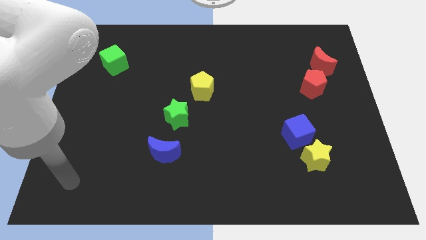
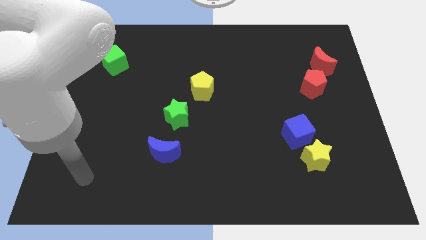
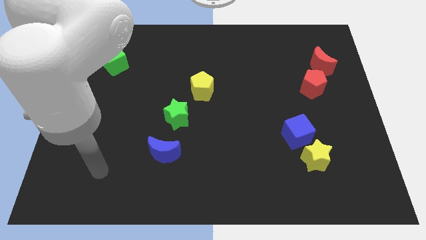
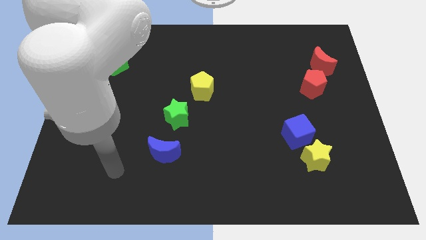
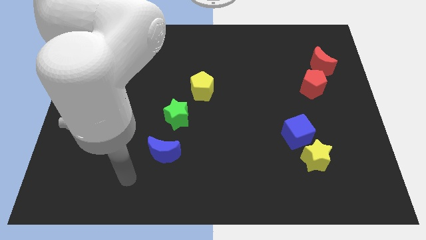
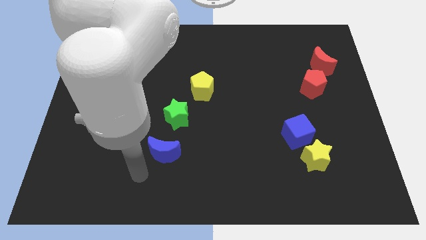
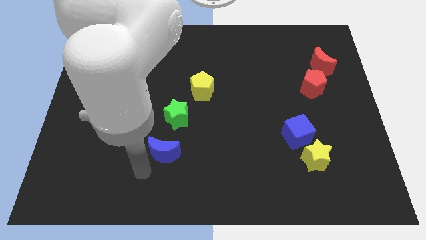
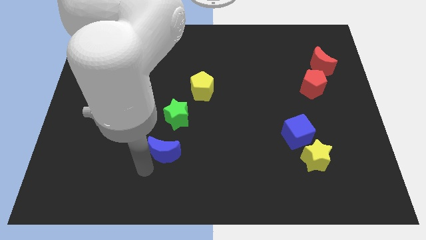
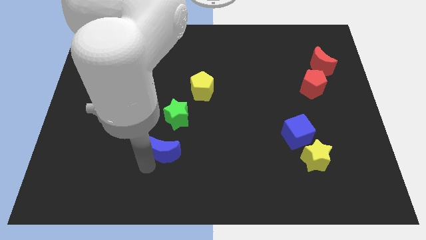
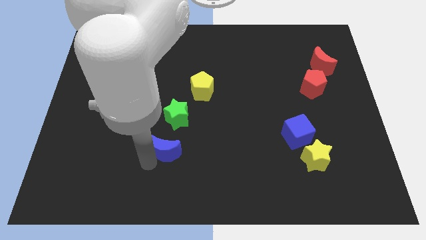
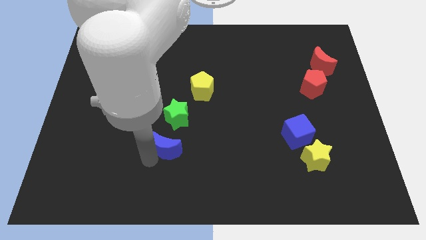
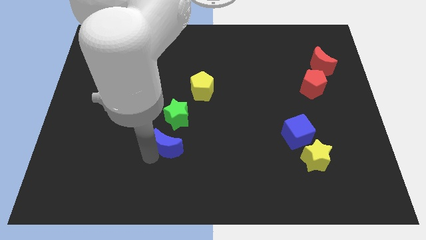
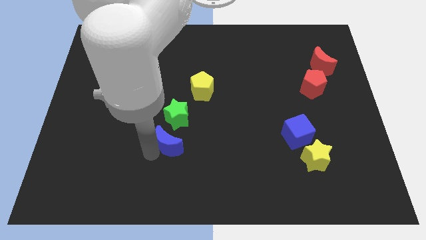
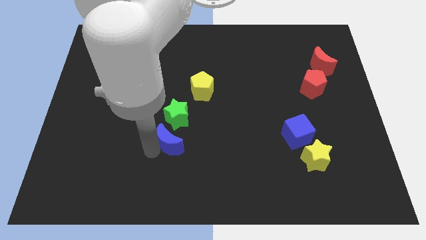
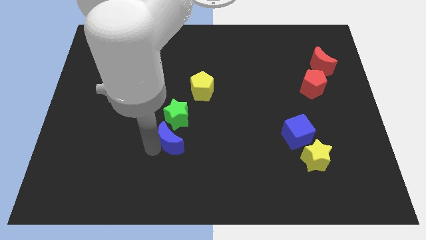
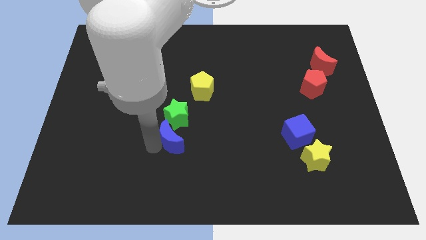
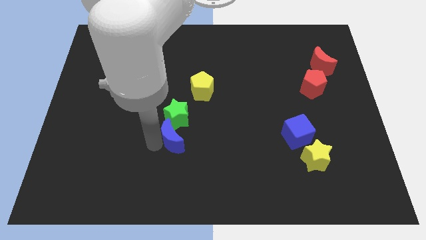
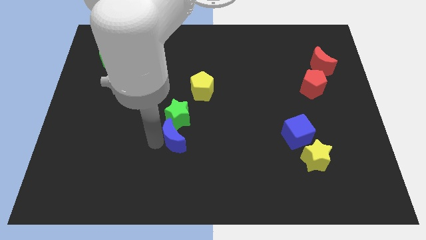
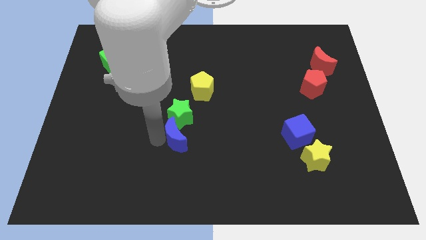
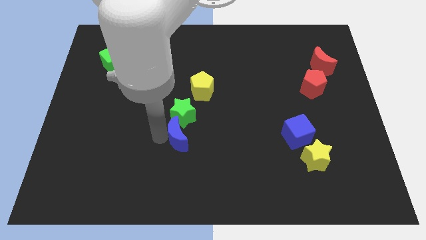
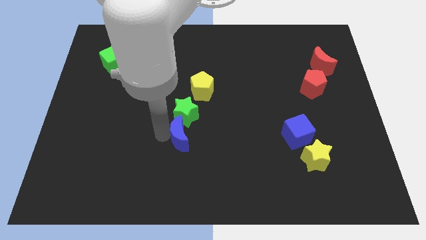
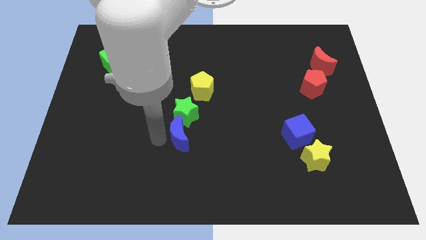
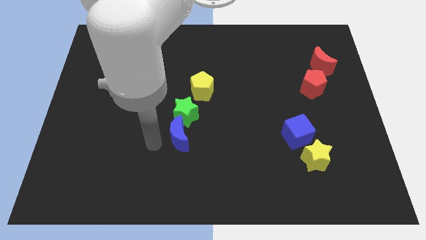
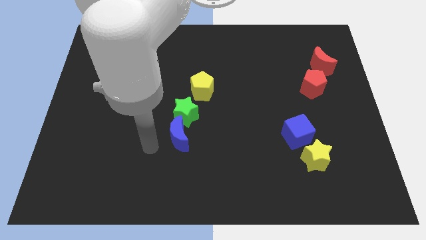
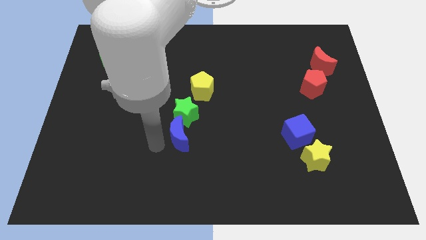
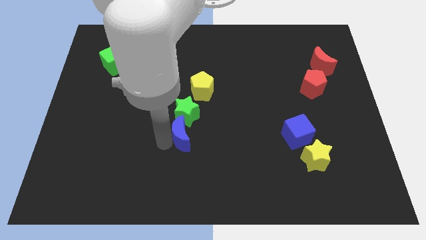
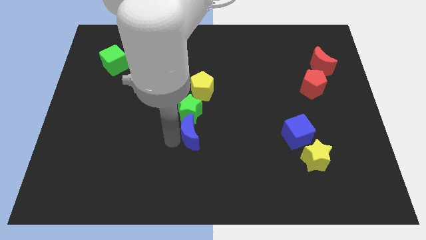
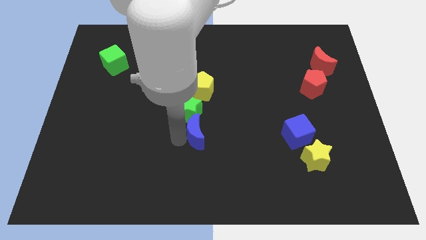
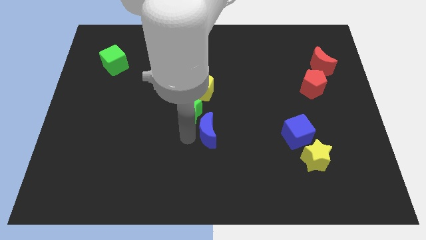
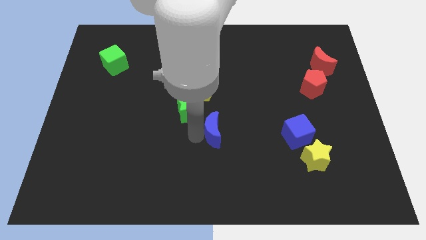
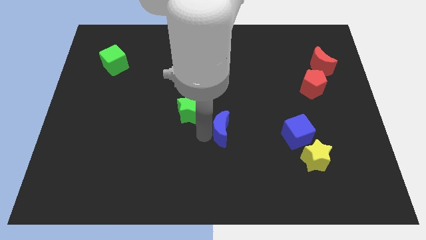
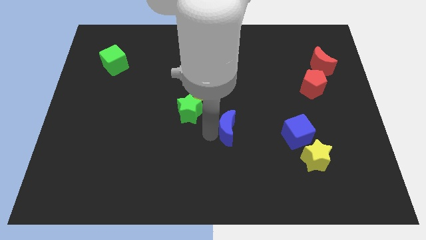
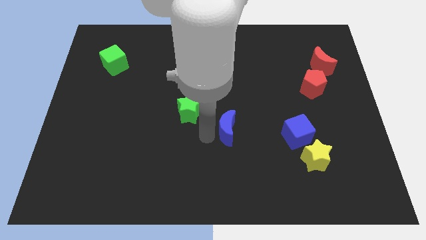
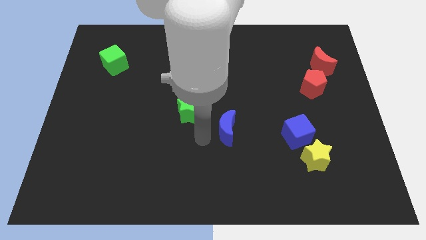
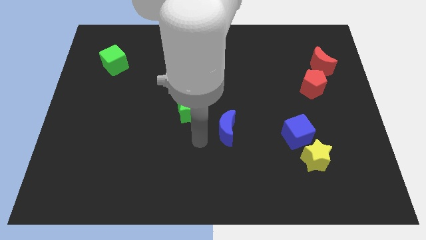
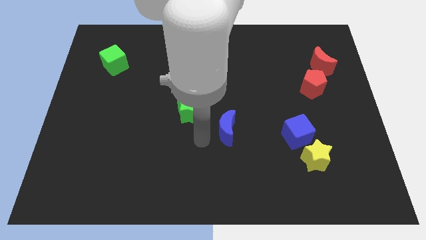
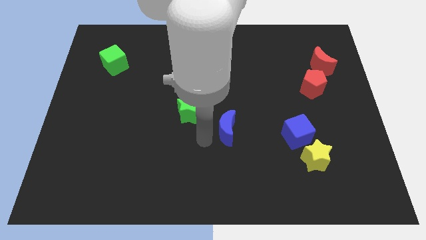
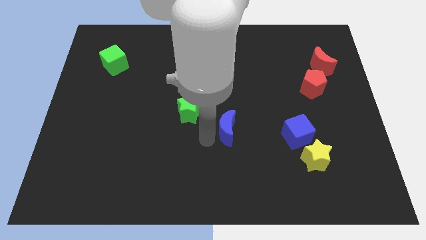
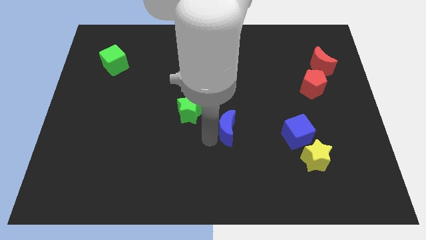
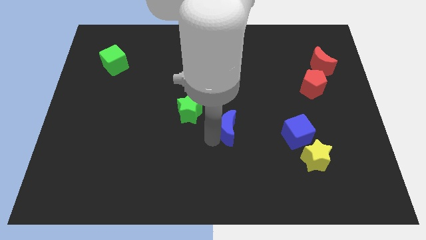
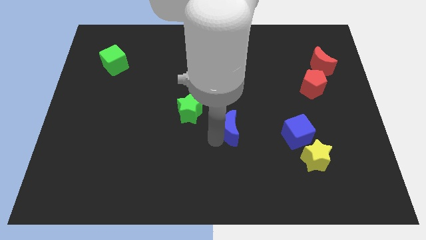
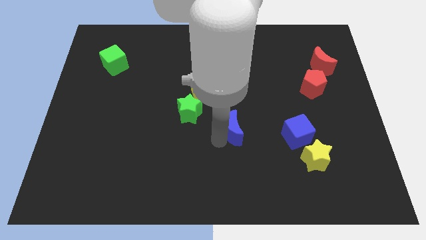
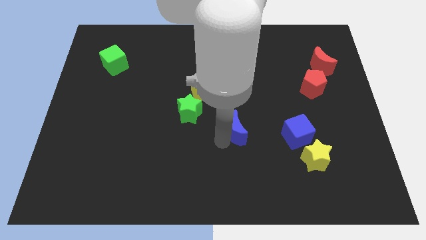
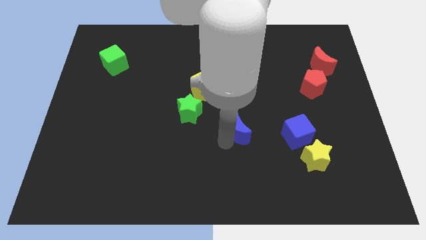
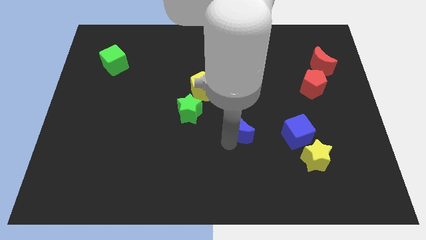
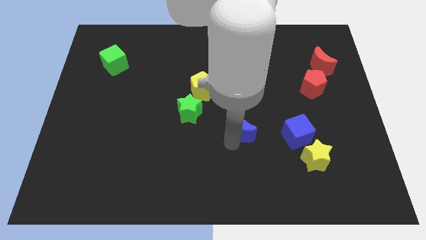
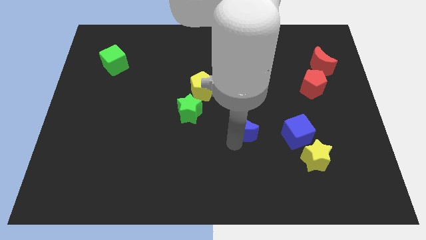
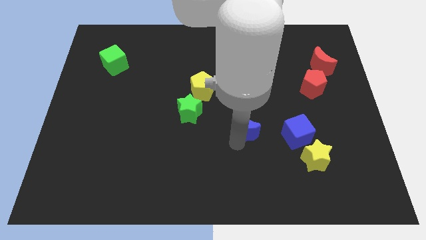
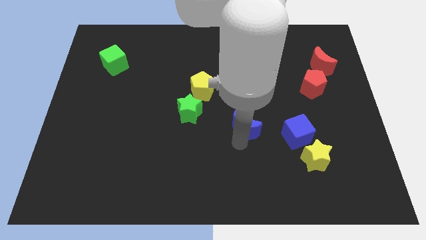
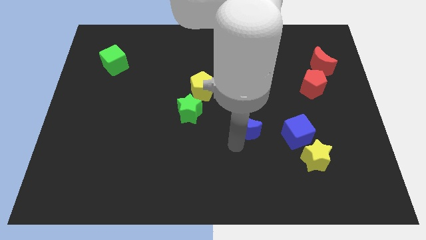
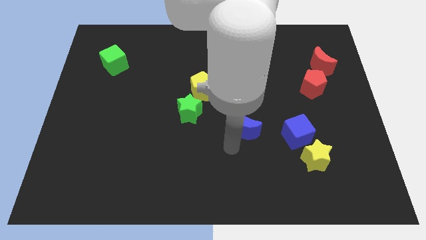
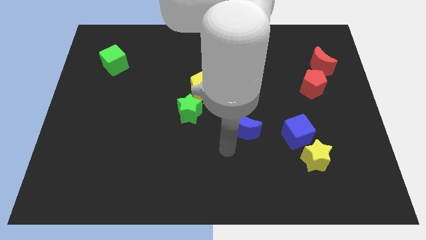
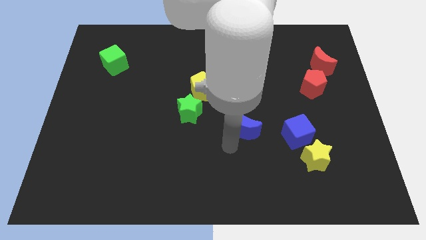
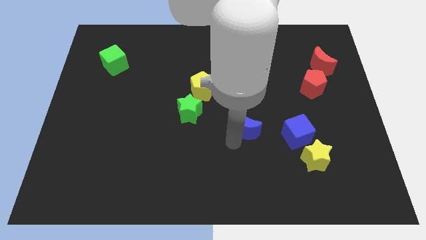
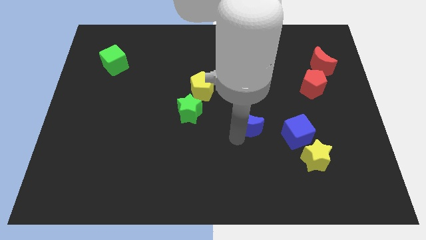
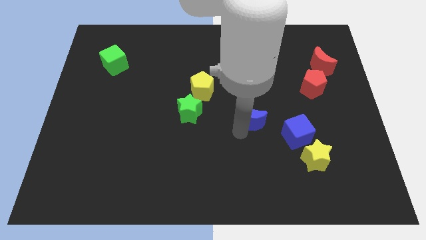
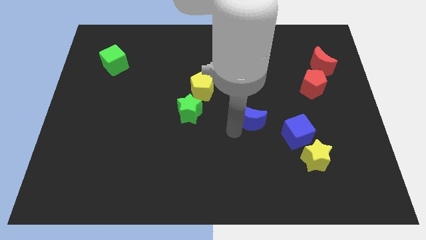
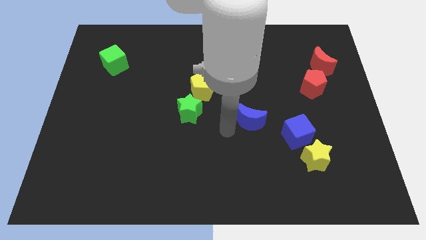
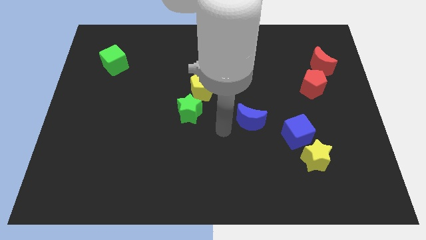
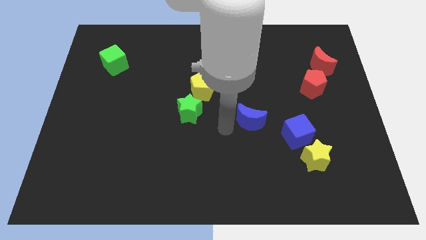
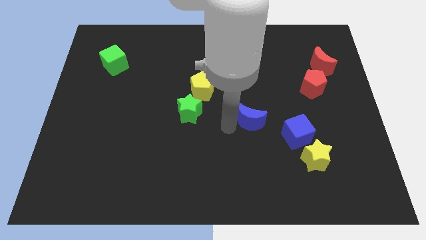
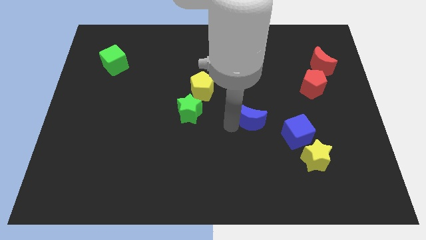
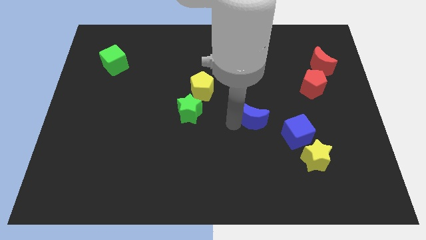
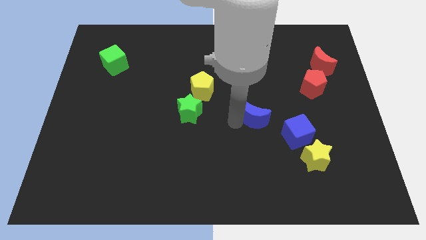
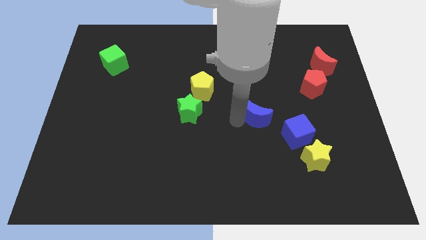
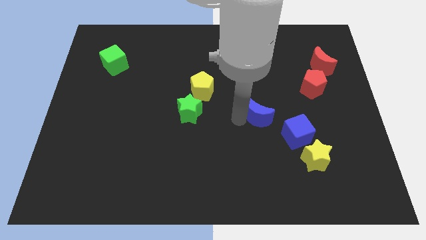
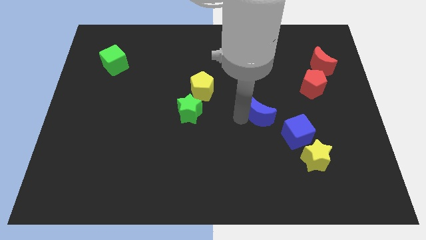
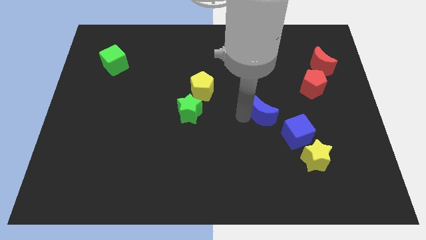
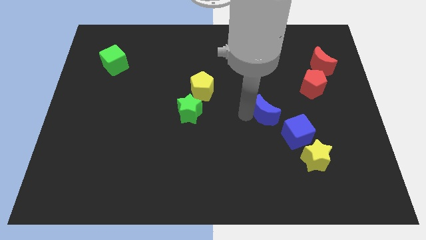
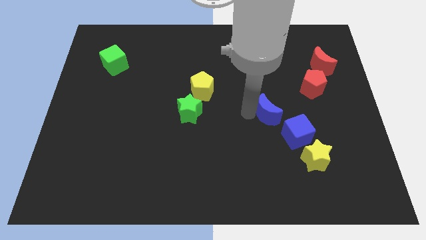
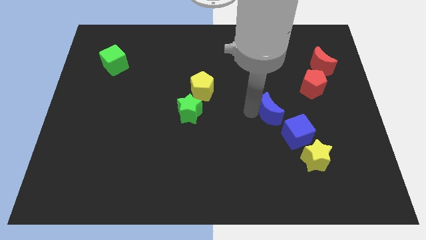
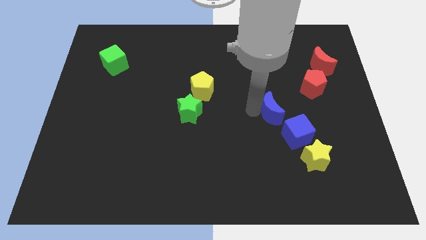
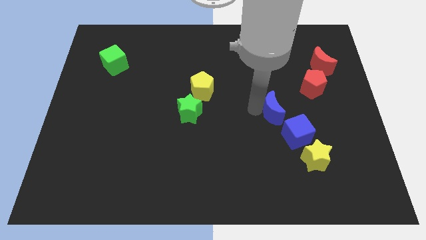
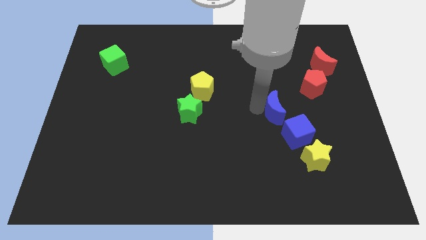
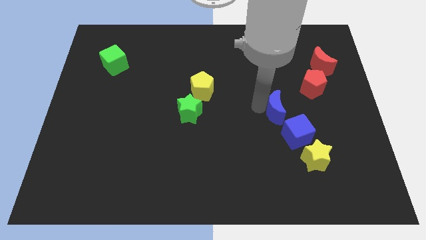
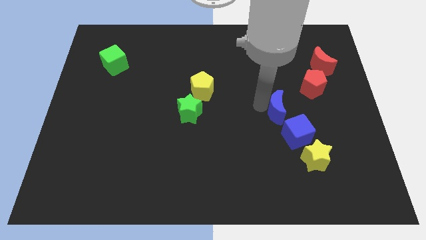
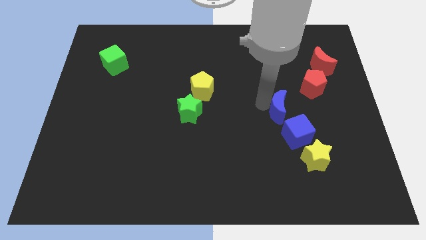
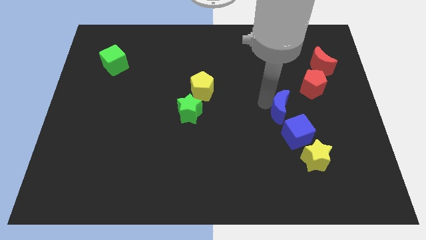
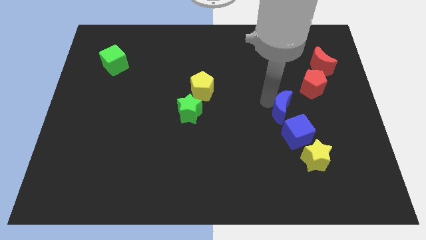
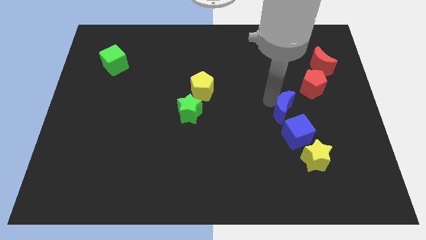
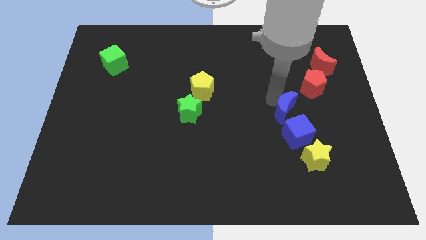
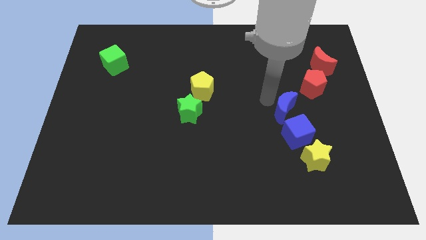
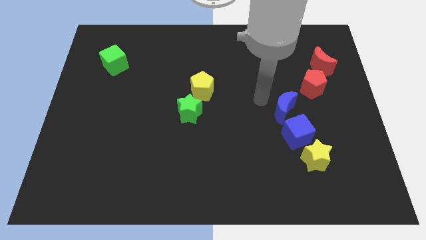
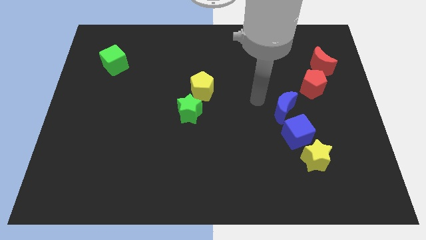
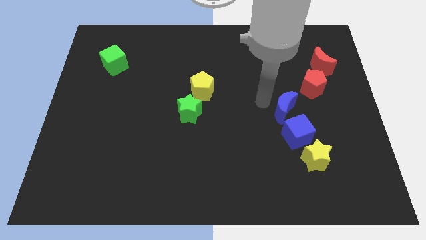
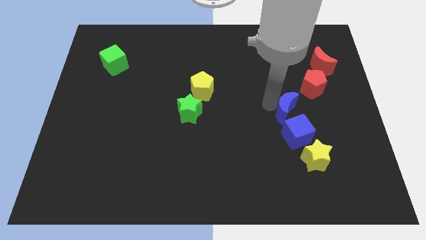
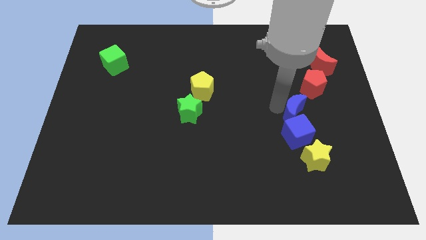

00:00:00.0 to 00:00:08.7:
move the blue moon above the yellow star
